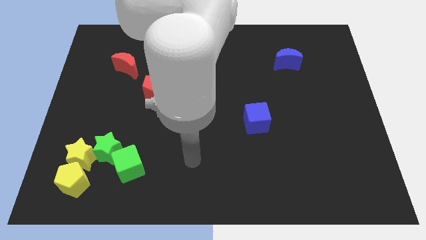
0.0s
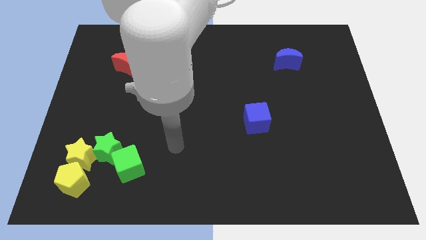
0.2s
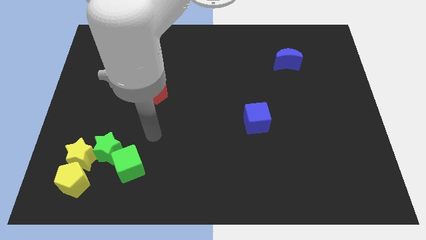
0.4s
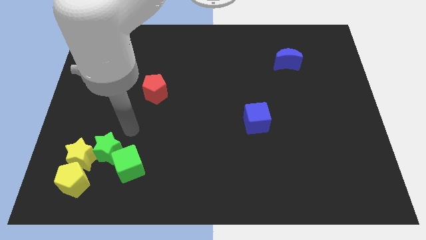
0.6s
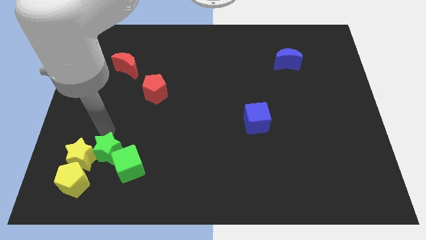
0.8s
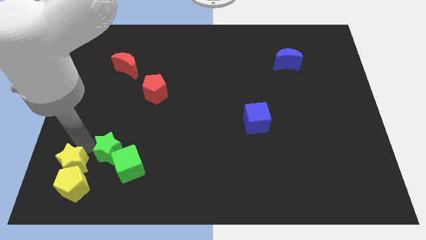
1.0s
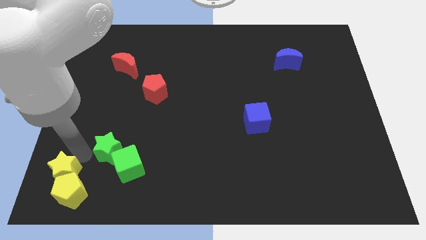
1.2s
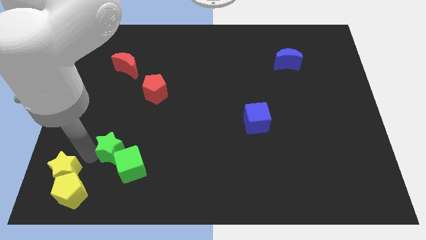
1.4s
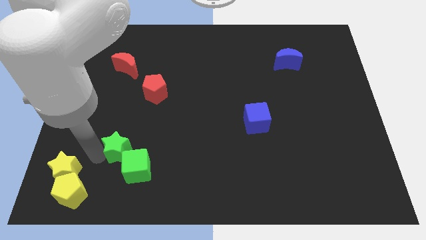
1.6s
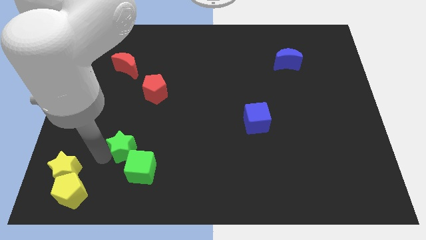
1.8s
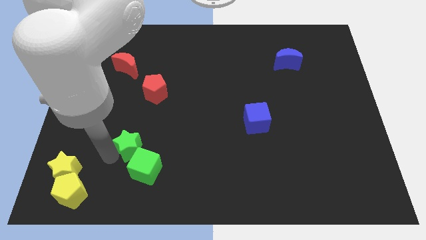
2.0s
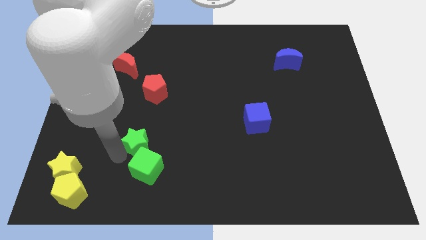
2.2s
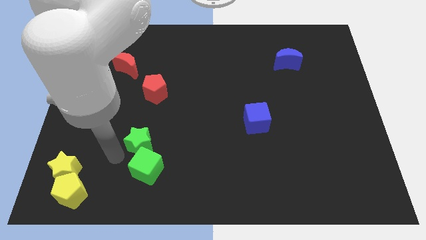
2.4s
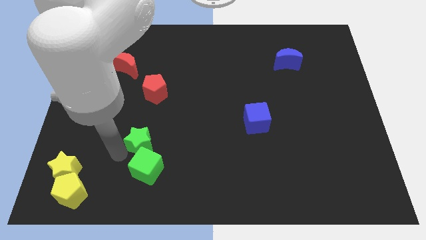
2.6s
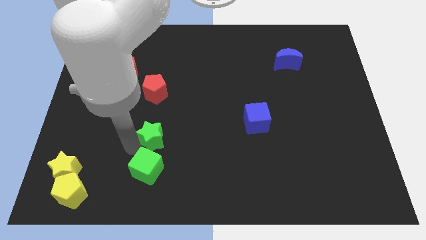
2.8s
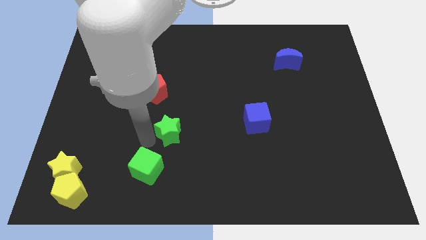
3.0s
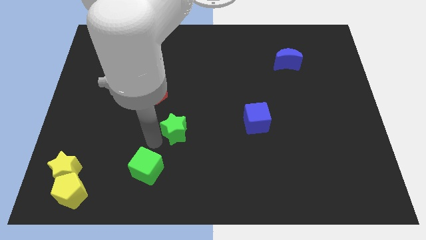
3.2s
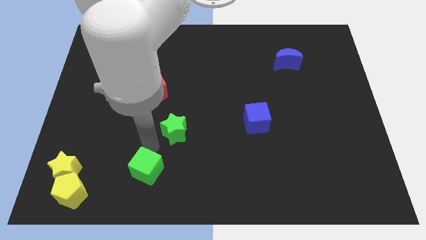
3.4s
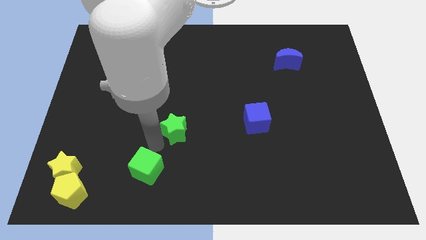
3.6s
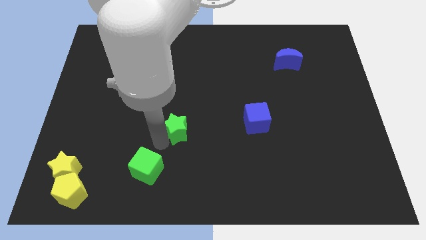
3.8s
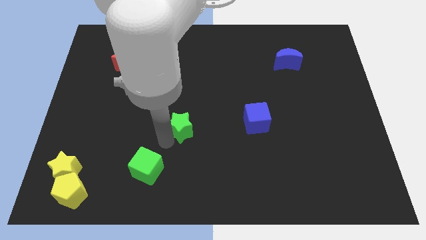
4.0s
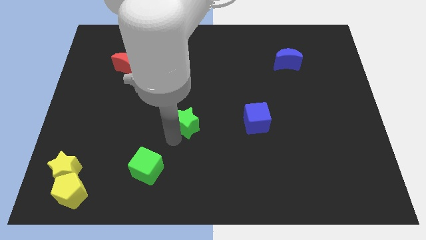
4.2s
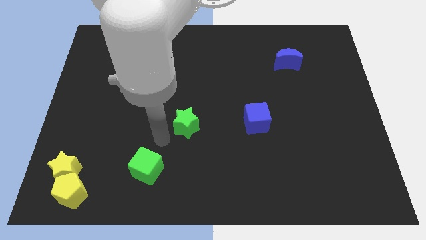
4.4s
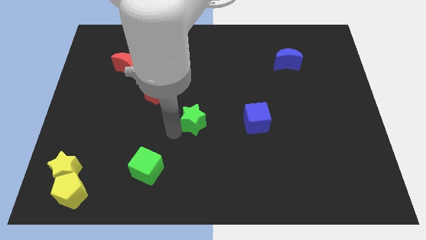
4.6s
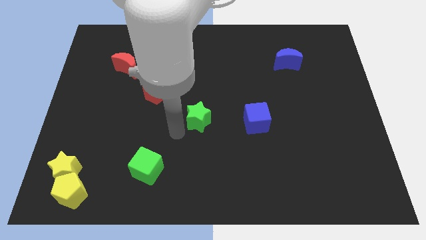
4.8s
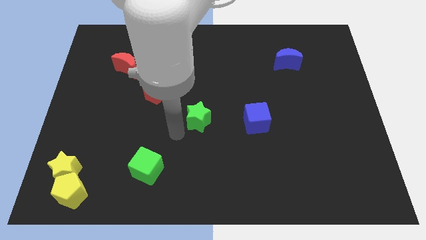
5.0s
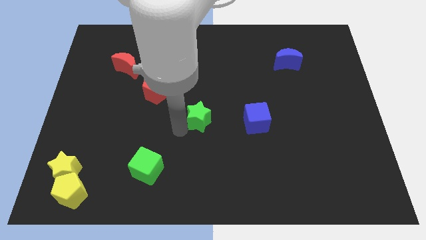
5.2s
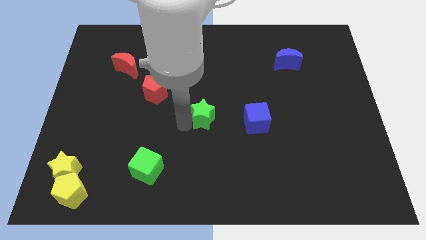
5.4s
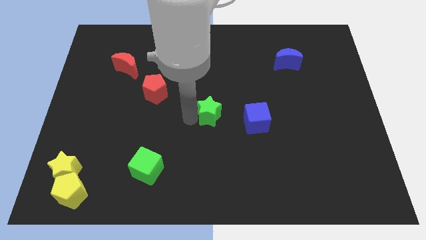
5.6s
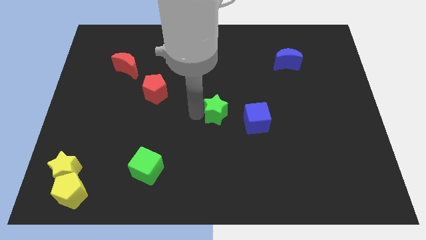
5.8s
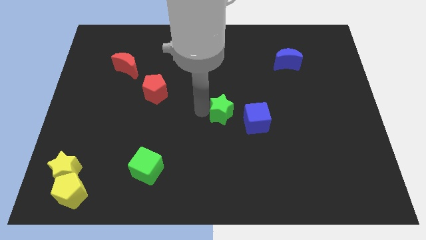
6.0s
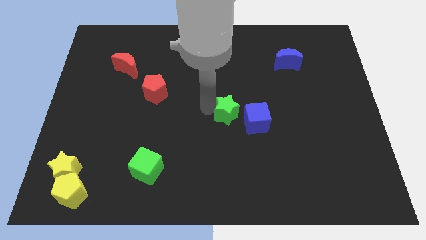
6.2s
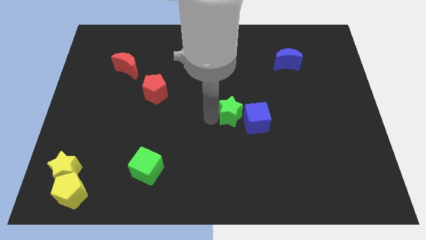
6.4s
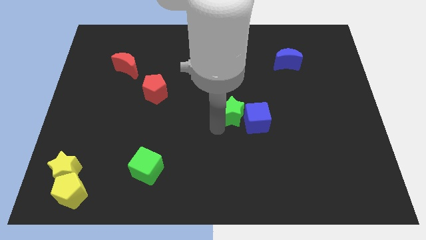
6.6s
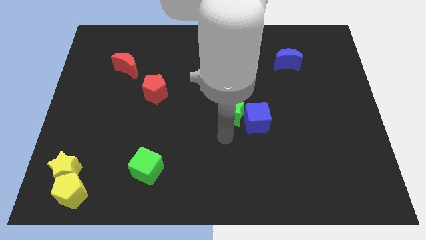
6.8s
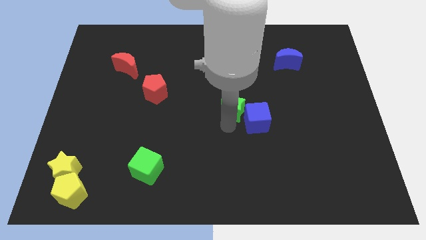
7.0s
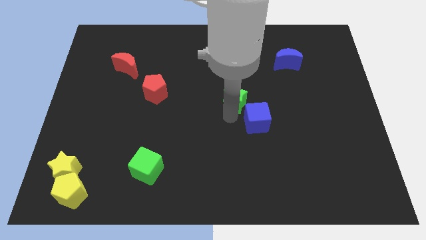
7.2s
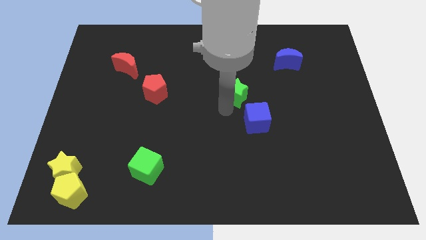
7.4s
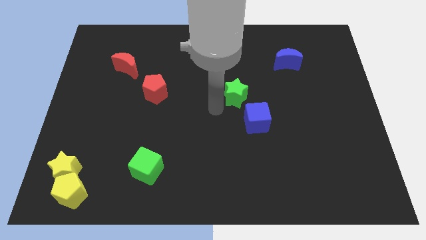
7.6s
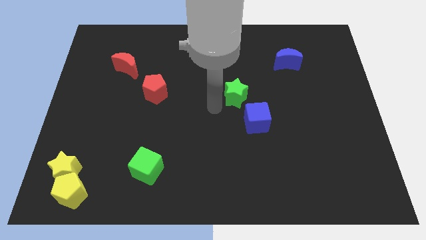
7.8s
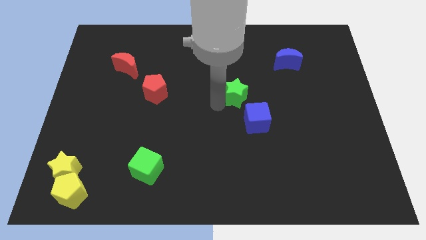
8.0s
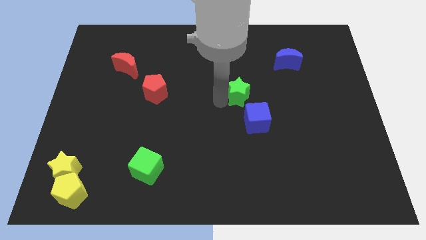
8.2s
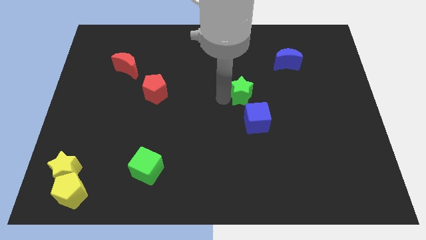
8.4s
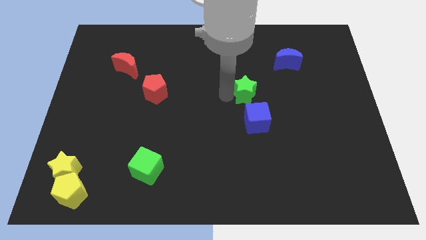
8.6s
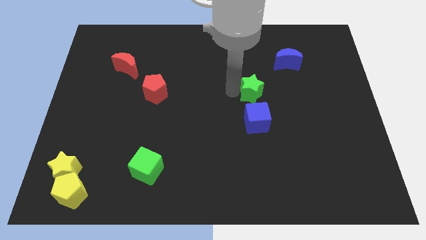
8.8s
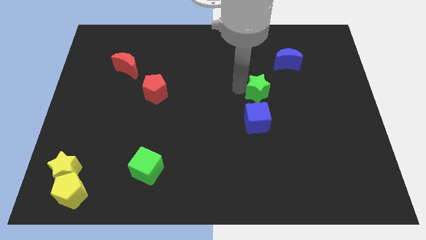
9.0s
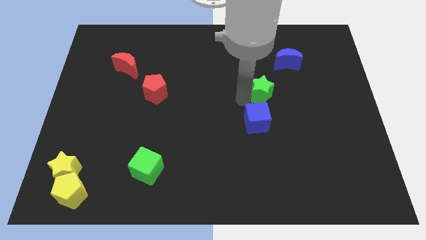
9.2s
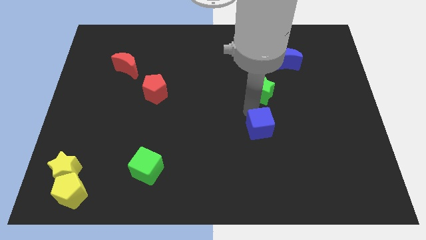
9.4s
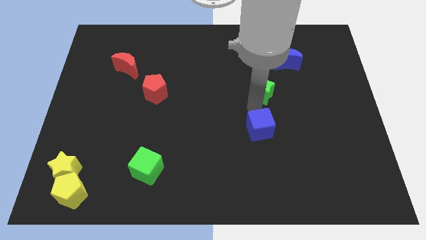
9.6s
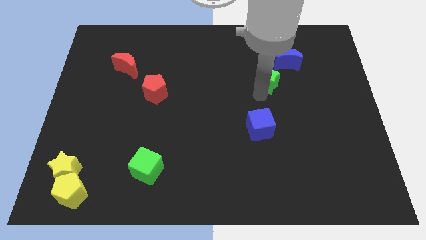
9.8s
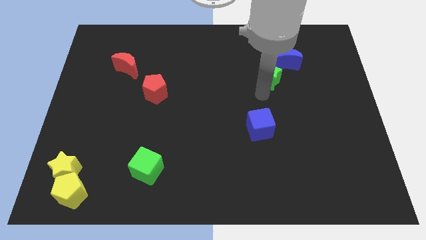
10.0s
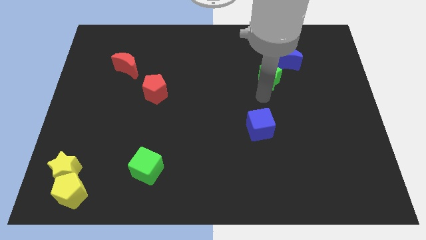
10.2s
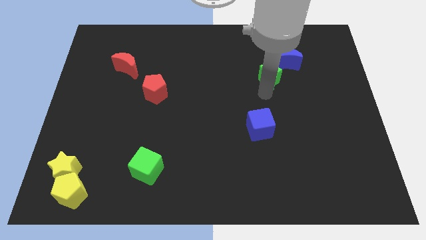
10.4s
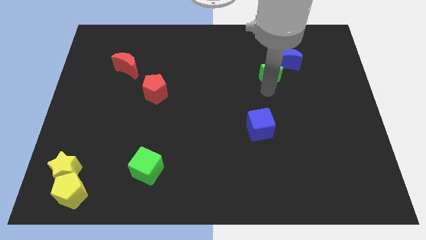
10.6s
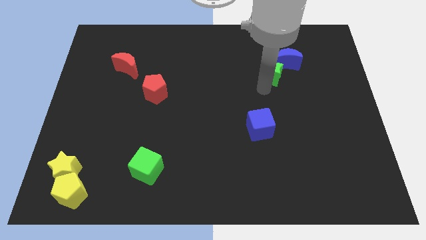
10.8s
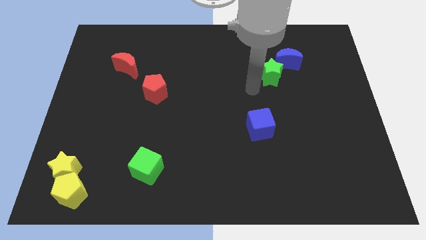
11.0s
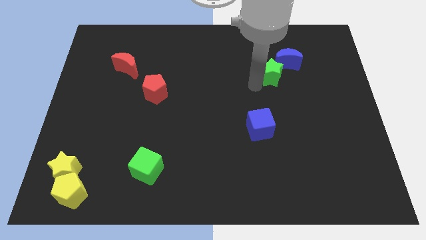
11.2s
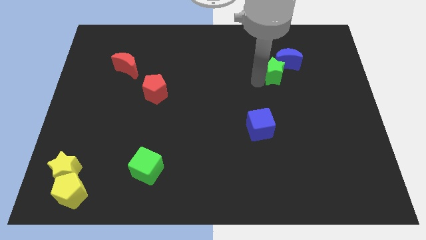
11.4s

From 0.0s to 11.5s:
move the green star close to the blue moon
